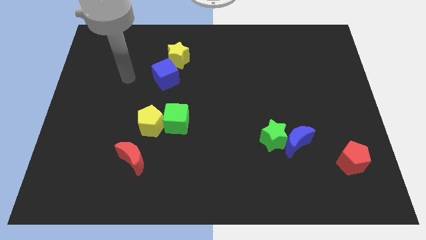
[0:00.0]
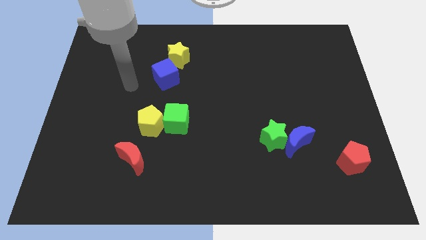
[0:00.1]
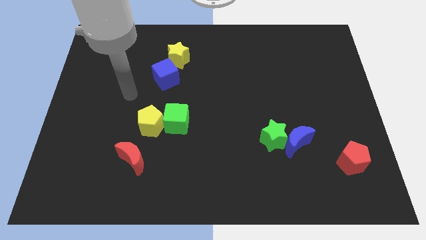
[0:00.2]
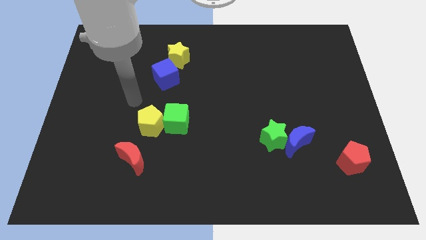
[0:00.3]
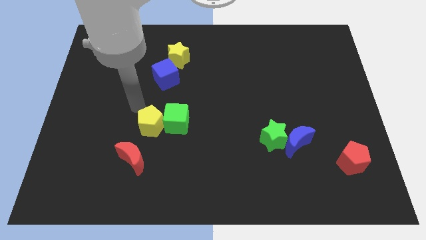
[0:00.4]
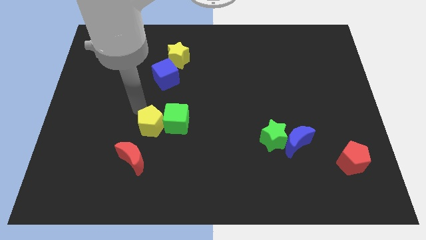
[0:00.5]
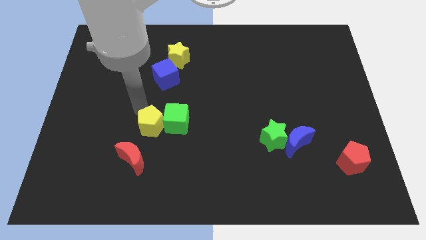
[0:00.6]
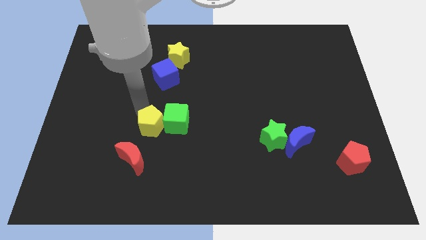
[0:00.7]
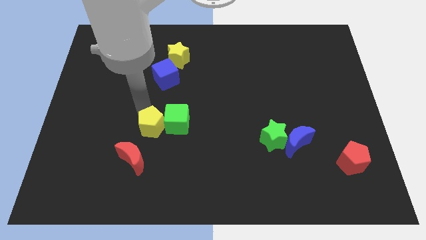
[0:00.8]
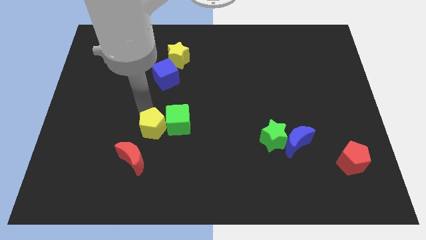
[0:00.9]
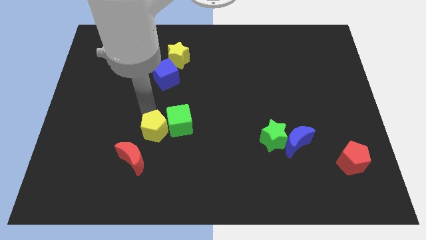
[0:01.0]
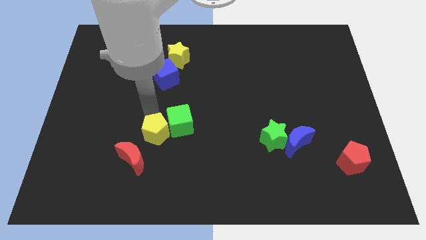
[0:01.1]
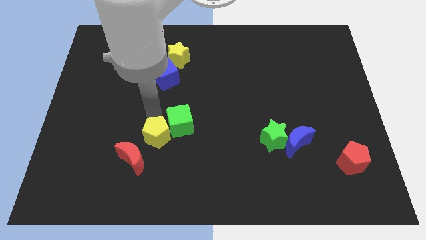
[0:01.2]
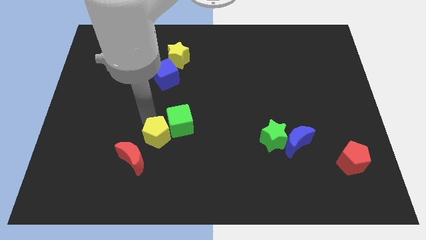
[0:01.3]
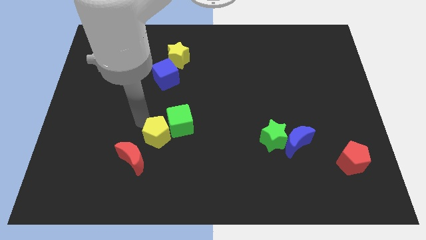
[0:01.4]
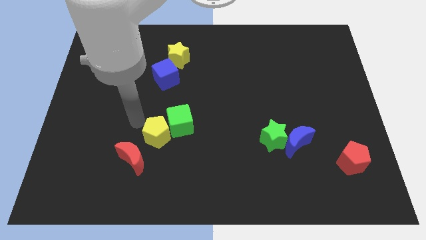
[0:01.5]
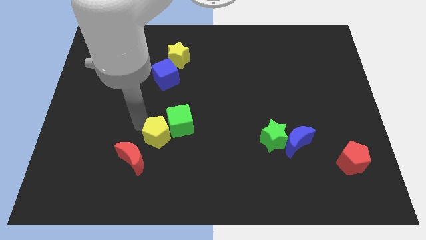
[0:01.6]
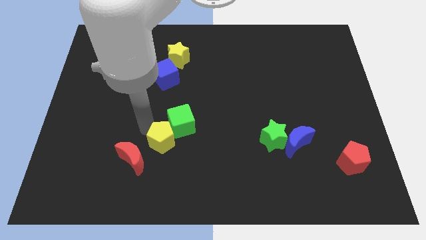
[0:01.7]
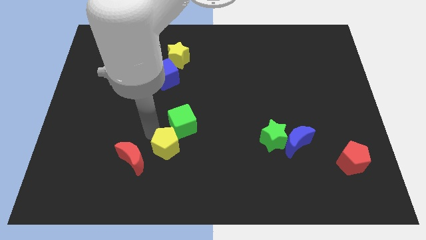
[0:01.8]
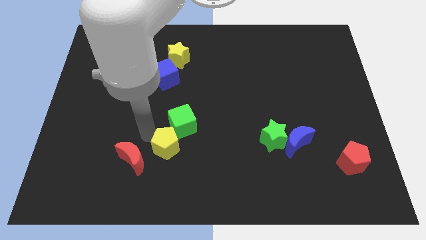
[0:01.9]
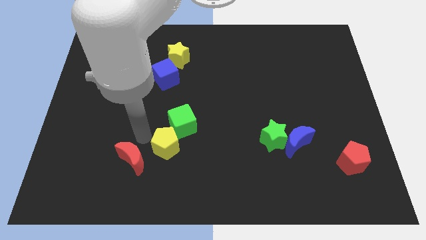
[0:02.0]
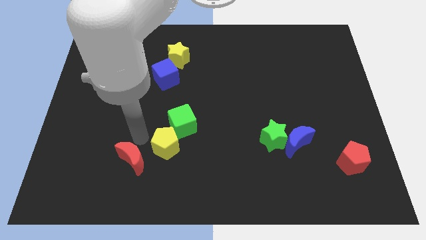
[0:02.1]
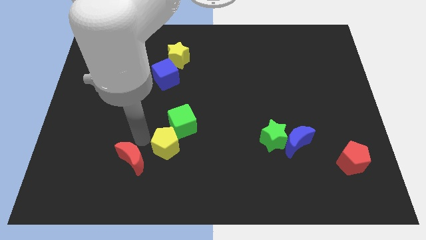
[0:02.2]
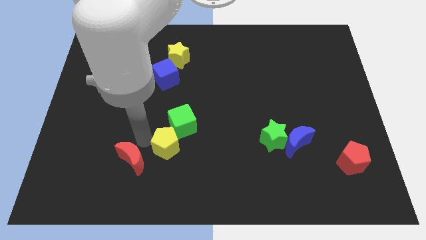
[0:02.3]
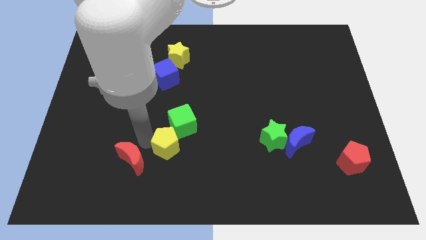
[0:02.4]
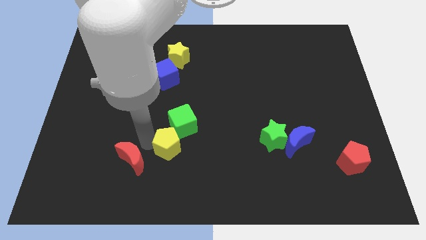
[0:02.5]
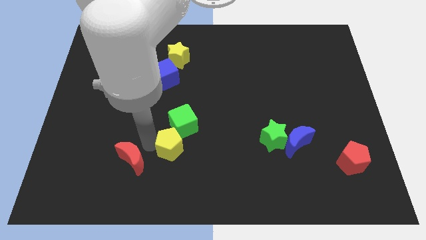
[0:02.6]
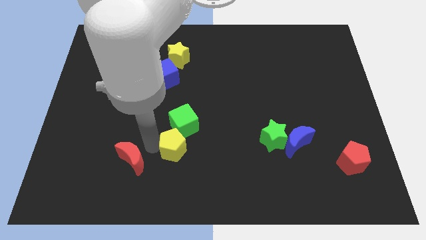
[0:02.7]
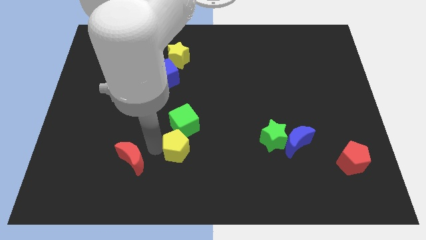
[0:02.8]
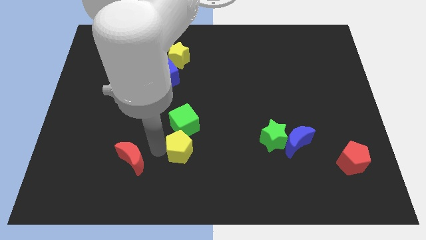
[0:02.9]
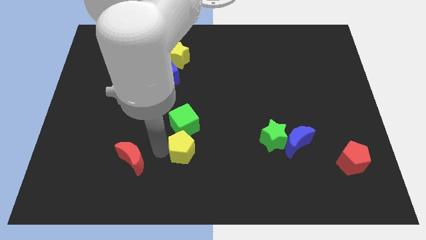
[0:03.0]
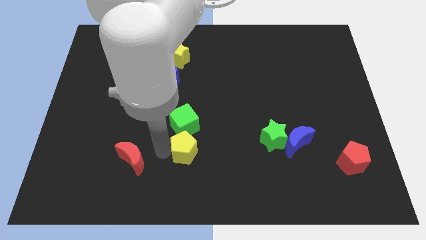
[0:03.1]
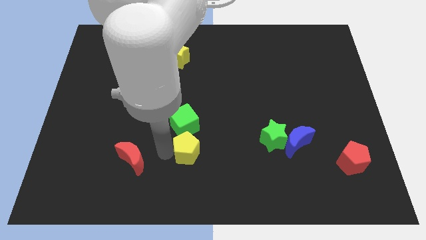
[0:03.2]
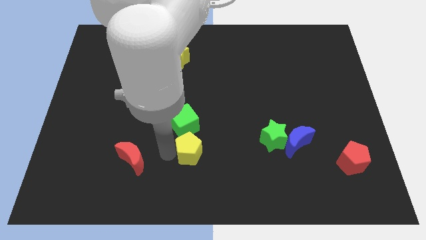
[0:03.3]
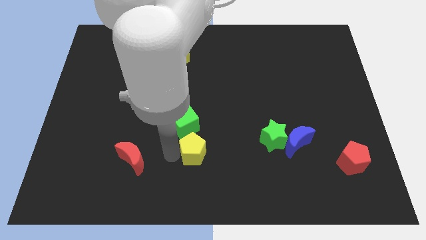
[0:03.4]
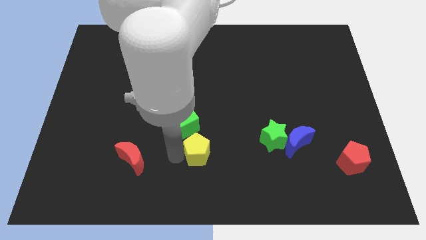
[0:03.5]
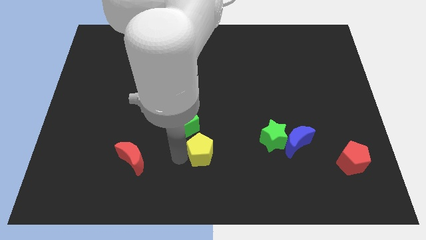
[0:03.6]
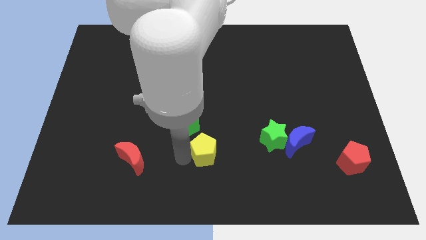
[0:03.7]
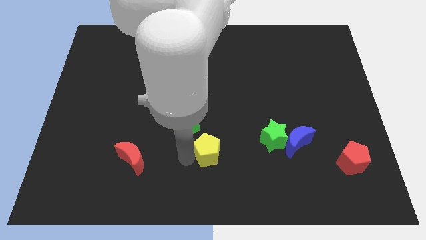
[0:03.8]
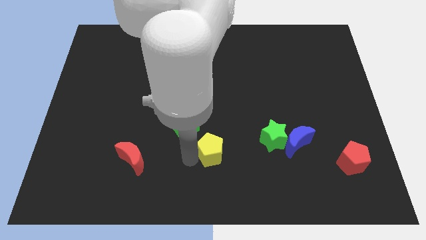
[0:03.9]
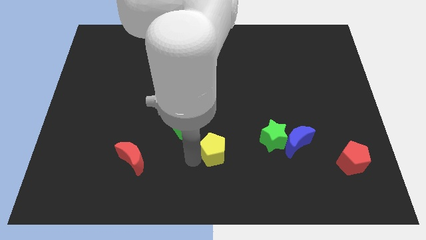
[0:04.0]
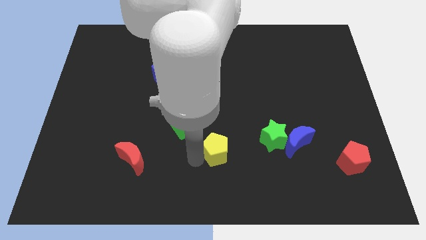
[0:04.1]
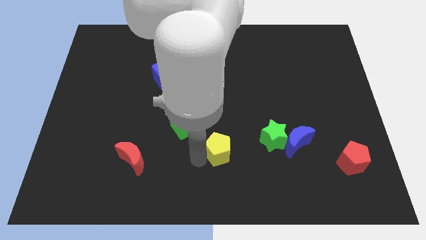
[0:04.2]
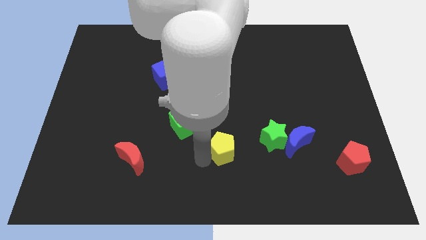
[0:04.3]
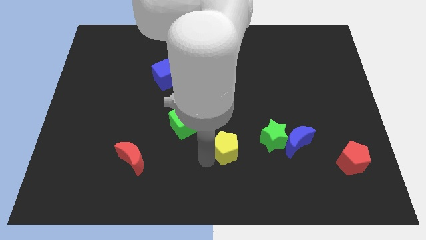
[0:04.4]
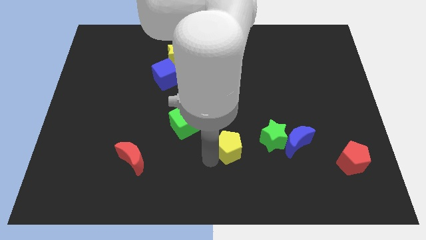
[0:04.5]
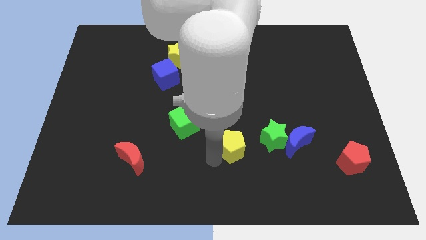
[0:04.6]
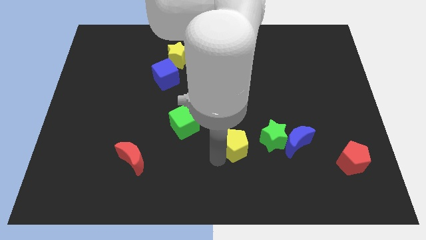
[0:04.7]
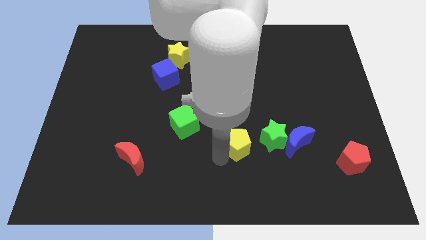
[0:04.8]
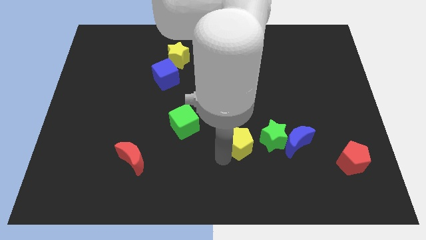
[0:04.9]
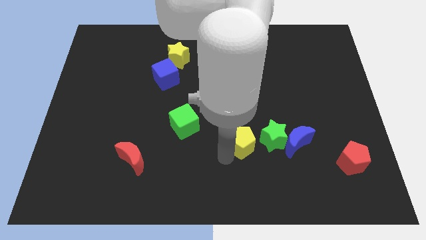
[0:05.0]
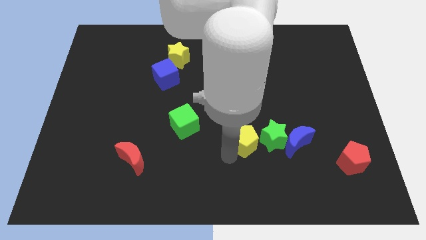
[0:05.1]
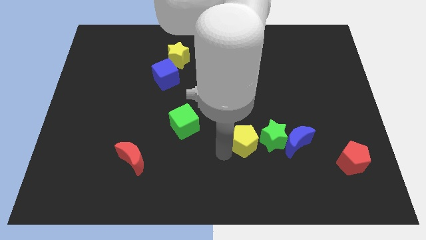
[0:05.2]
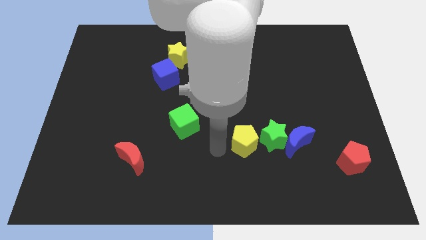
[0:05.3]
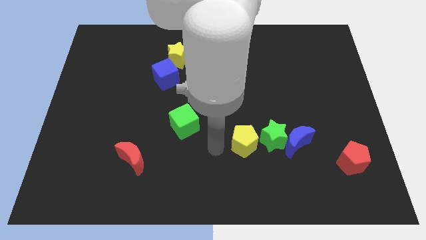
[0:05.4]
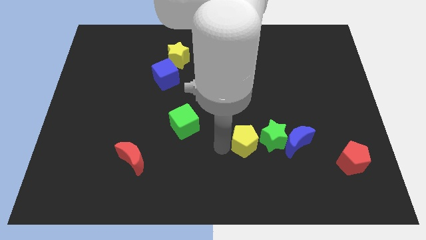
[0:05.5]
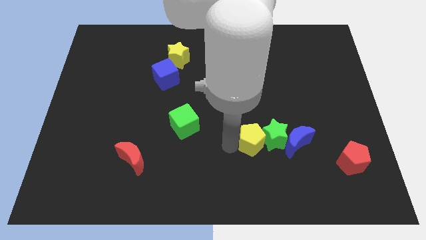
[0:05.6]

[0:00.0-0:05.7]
push the yellow pentagon next to the green star

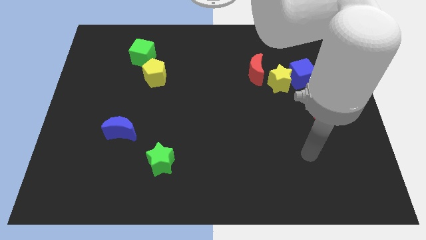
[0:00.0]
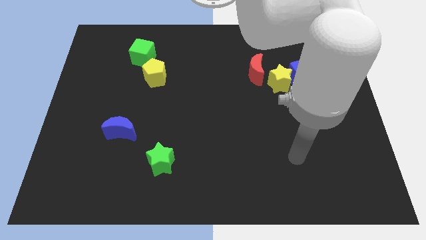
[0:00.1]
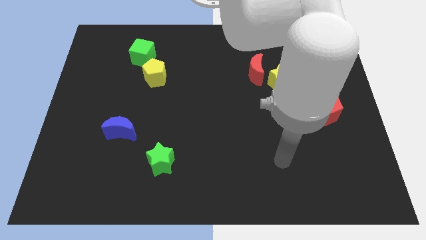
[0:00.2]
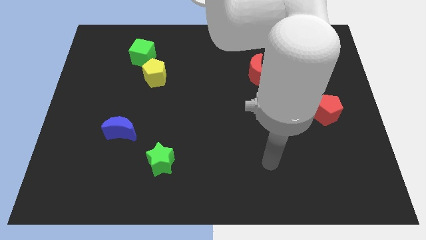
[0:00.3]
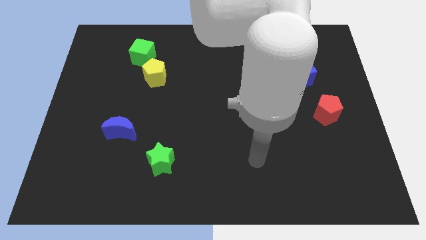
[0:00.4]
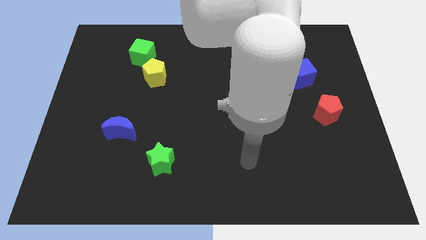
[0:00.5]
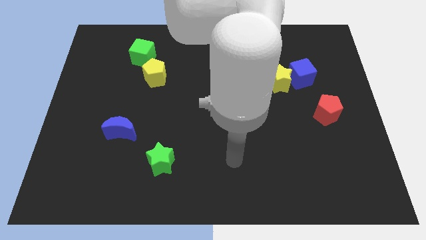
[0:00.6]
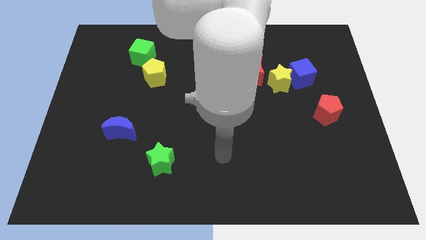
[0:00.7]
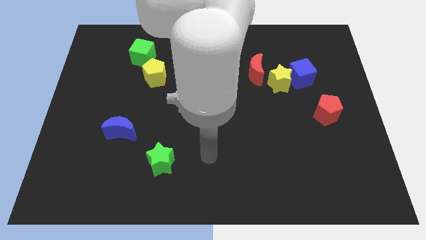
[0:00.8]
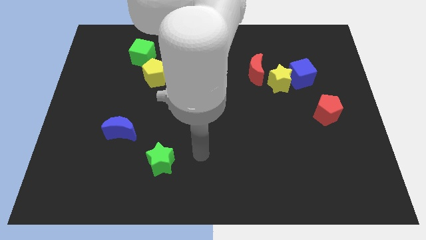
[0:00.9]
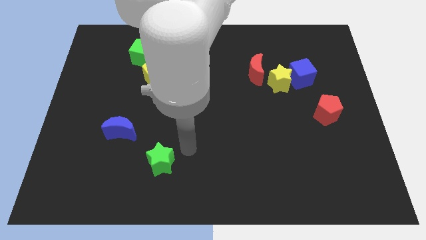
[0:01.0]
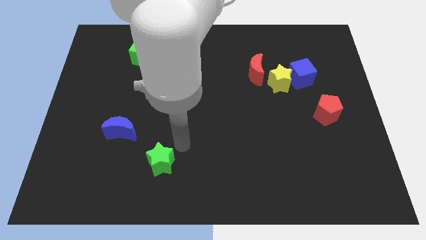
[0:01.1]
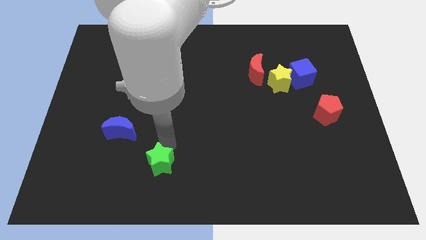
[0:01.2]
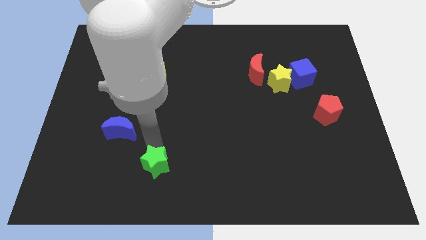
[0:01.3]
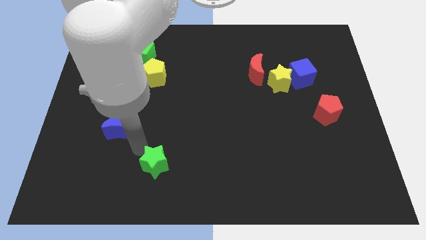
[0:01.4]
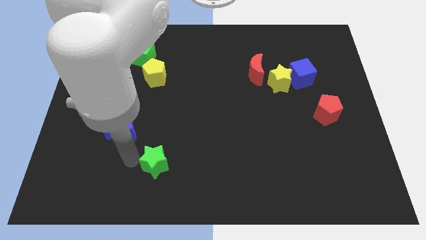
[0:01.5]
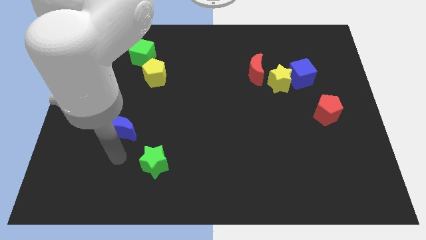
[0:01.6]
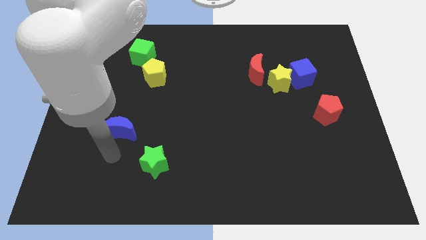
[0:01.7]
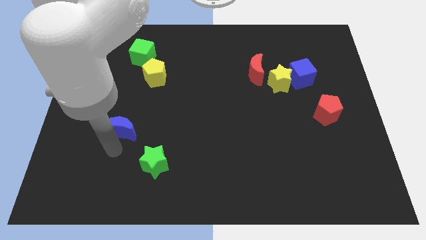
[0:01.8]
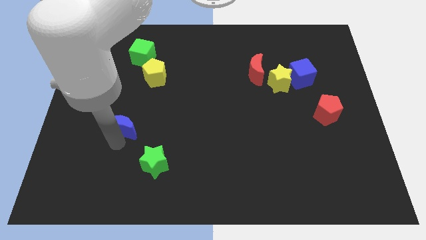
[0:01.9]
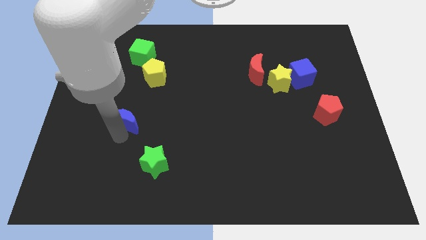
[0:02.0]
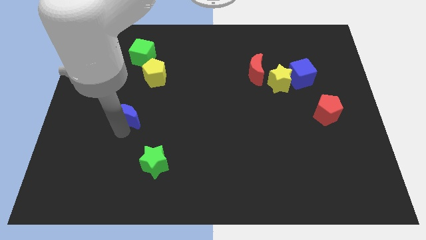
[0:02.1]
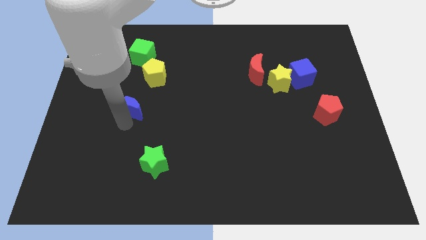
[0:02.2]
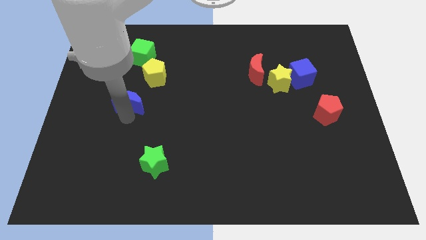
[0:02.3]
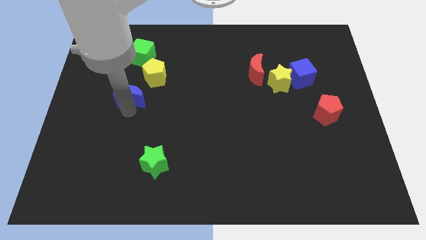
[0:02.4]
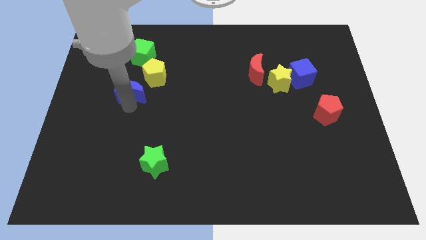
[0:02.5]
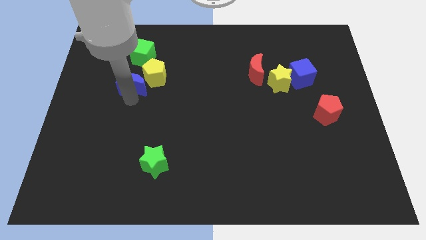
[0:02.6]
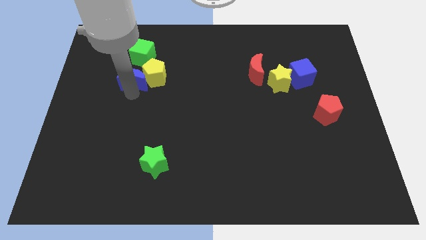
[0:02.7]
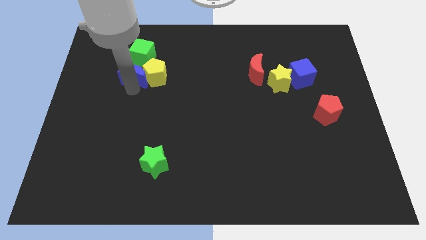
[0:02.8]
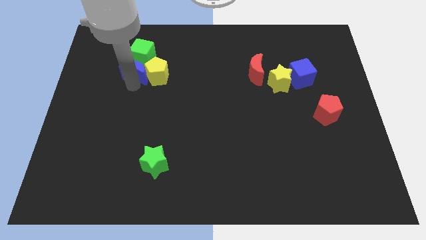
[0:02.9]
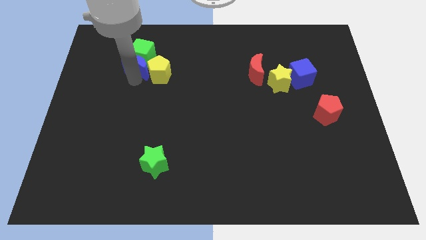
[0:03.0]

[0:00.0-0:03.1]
put the blue moon close to the green cube
